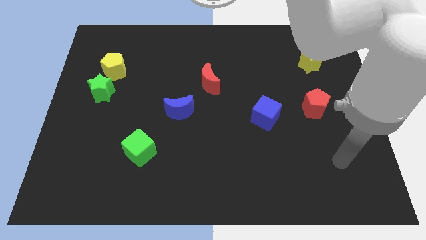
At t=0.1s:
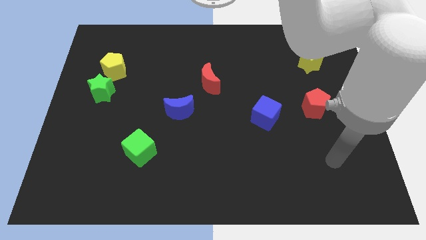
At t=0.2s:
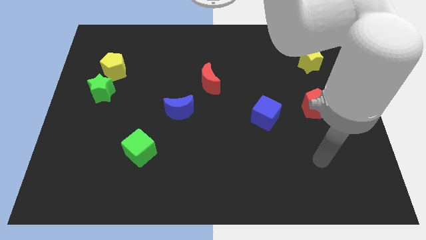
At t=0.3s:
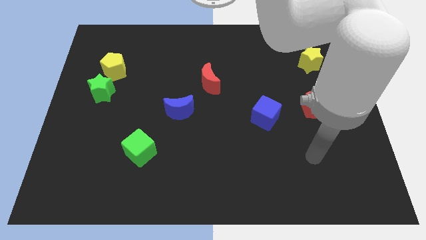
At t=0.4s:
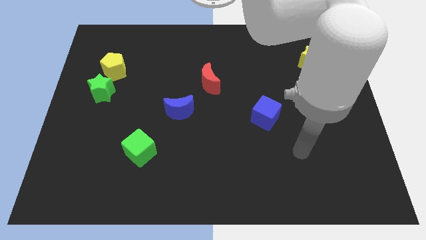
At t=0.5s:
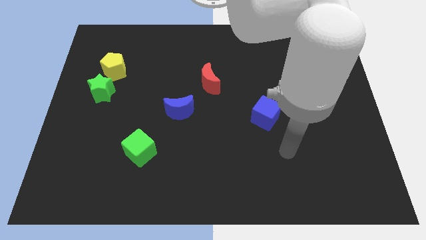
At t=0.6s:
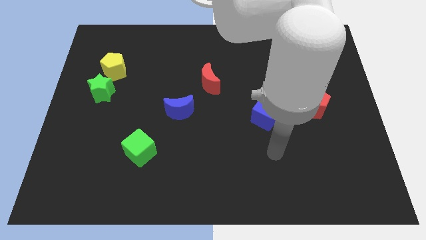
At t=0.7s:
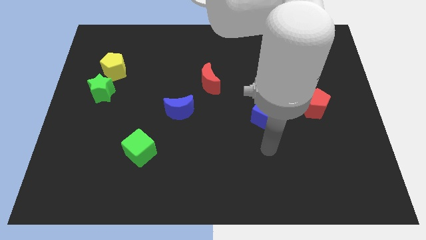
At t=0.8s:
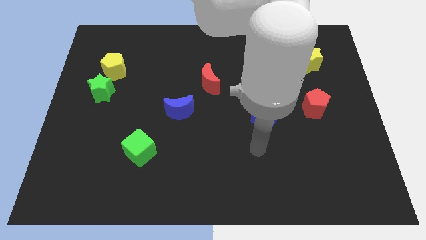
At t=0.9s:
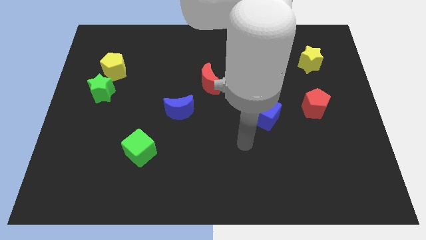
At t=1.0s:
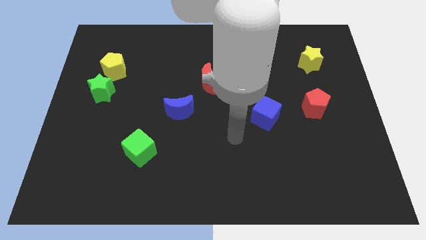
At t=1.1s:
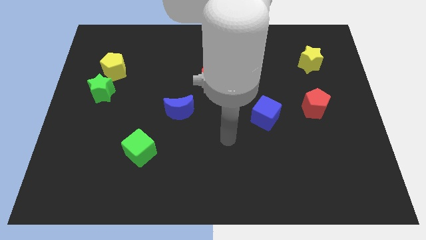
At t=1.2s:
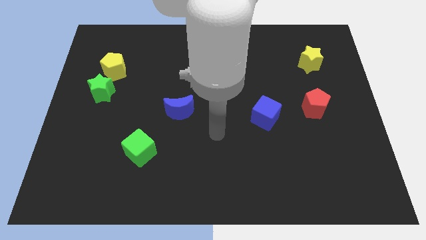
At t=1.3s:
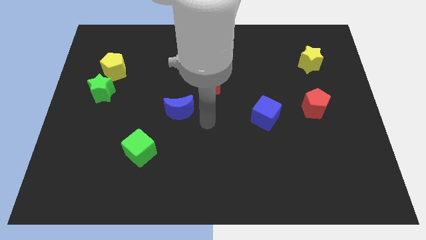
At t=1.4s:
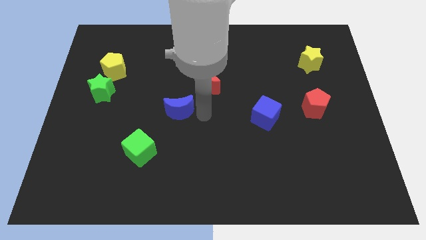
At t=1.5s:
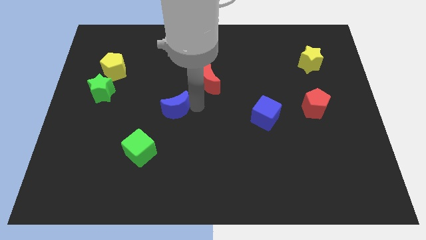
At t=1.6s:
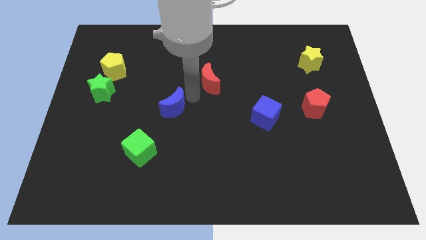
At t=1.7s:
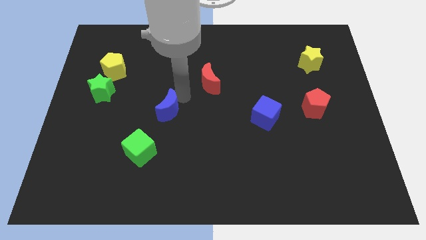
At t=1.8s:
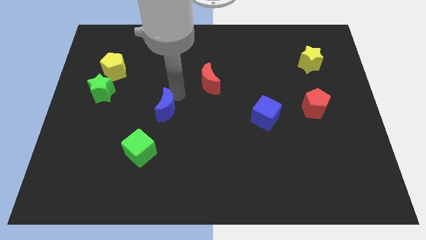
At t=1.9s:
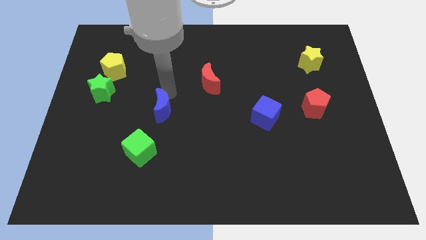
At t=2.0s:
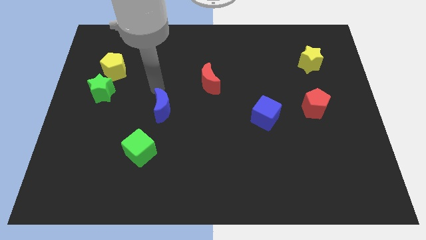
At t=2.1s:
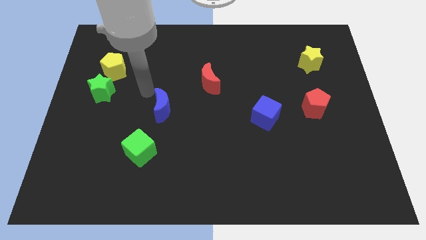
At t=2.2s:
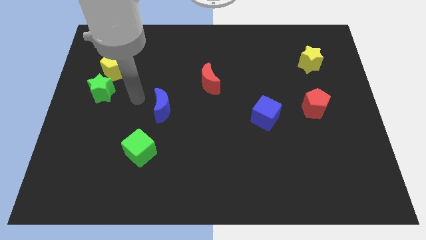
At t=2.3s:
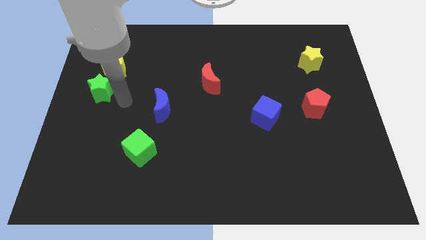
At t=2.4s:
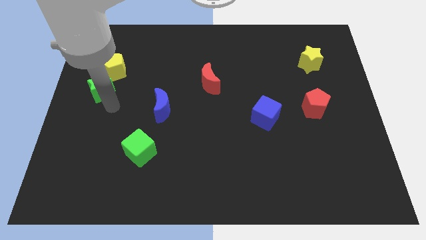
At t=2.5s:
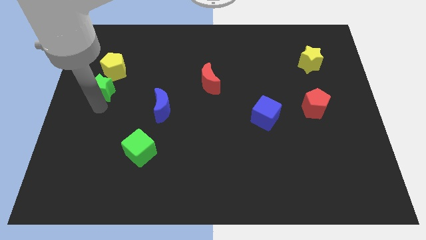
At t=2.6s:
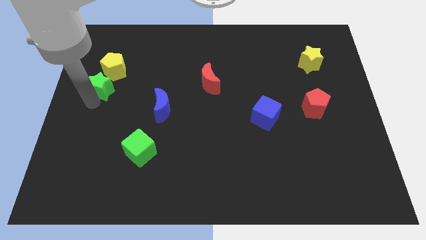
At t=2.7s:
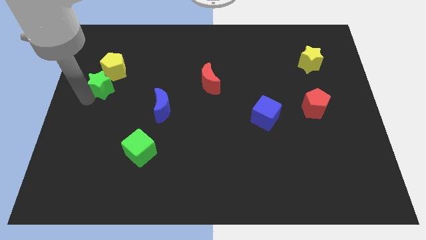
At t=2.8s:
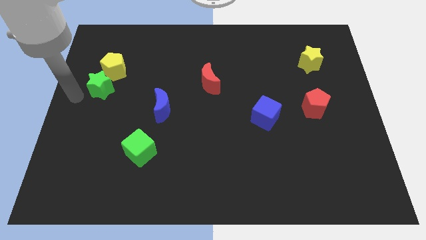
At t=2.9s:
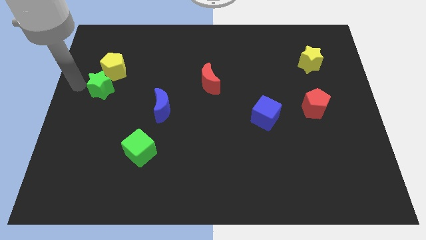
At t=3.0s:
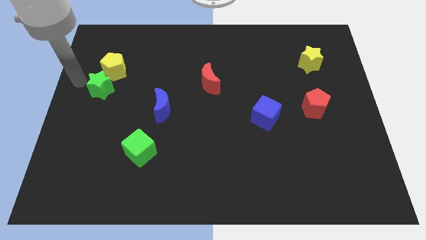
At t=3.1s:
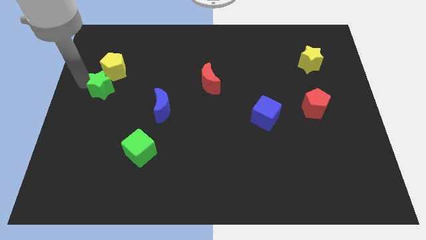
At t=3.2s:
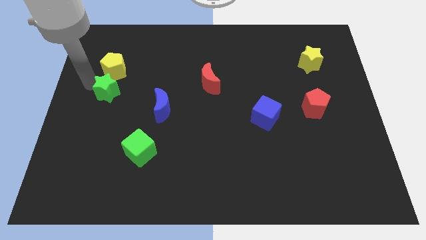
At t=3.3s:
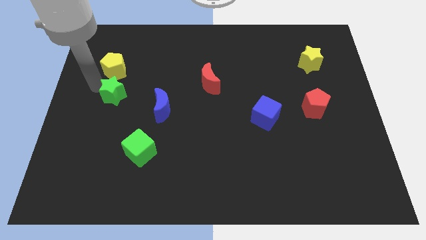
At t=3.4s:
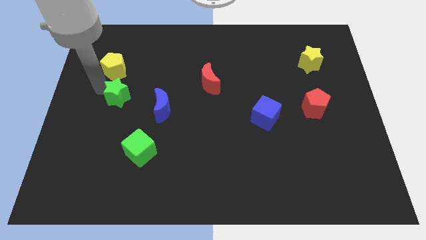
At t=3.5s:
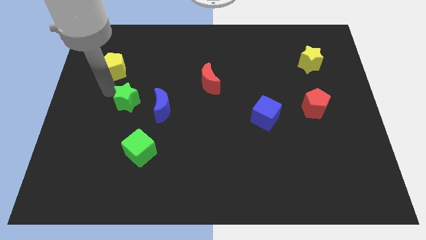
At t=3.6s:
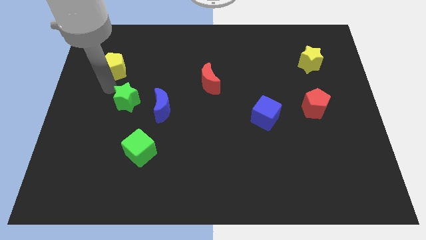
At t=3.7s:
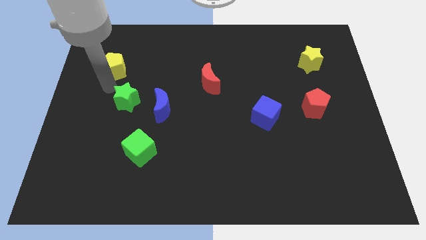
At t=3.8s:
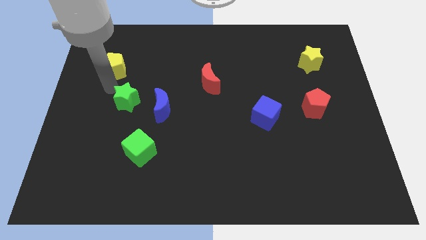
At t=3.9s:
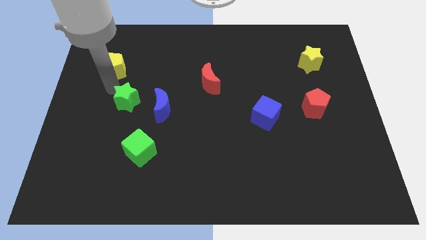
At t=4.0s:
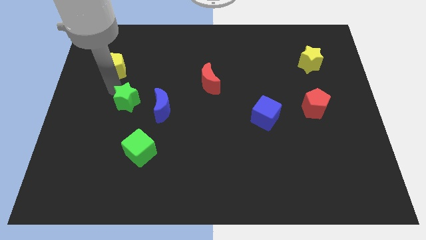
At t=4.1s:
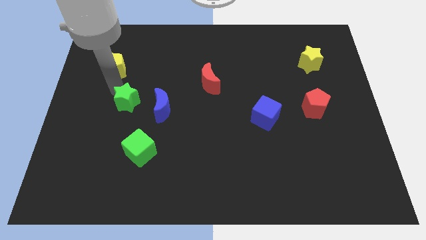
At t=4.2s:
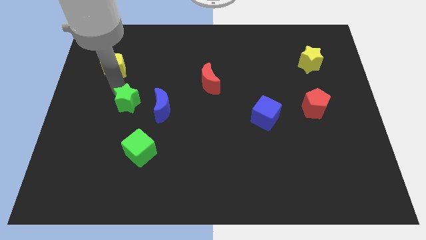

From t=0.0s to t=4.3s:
slightly push the green star down and then right

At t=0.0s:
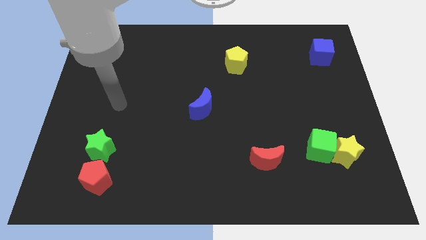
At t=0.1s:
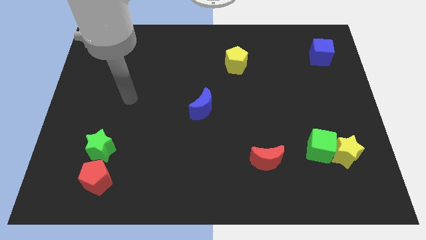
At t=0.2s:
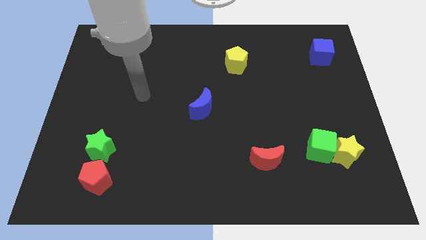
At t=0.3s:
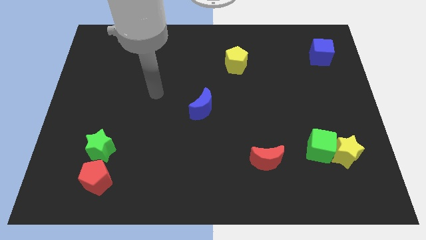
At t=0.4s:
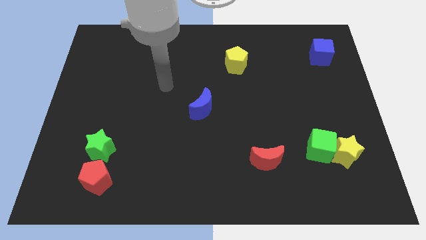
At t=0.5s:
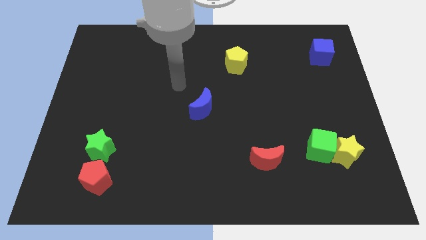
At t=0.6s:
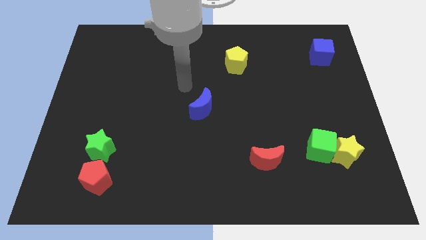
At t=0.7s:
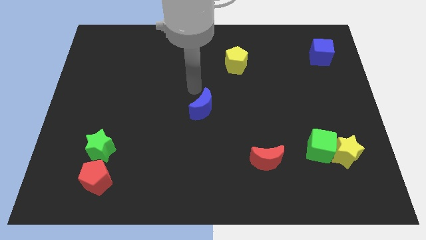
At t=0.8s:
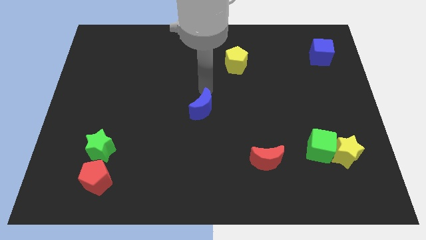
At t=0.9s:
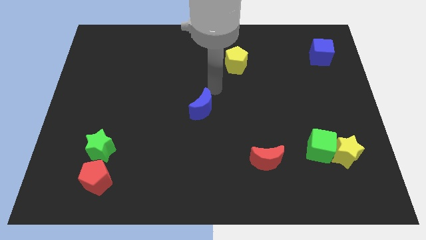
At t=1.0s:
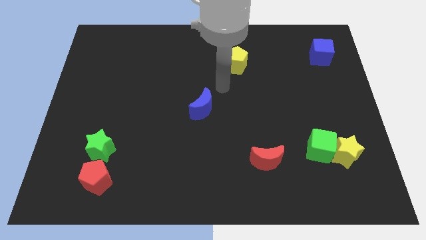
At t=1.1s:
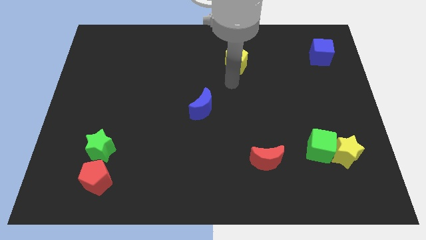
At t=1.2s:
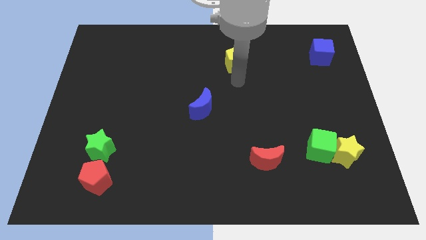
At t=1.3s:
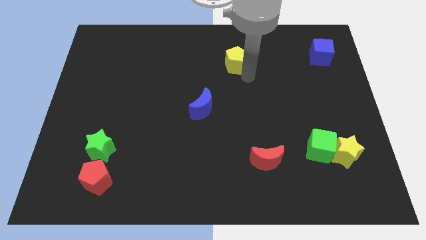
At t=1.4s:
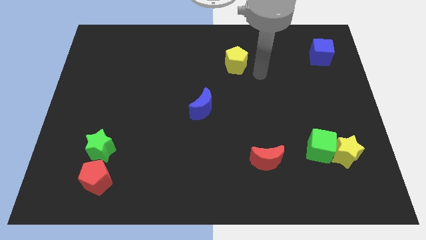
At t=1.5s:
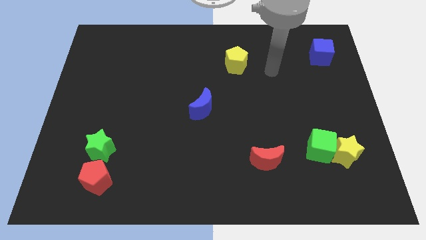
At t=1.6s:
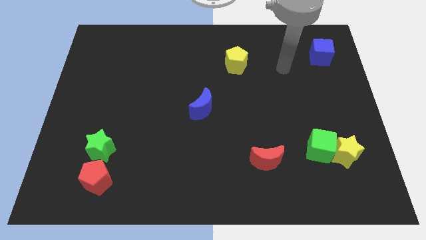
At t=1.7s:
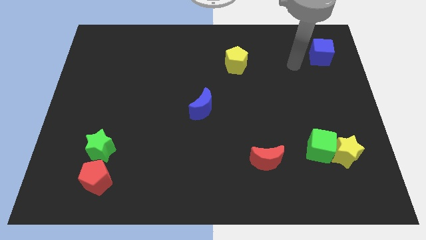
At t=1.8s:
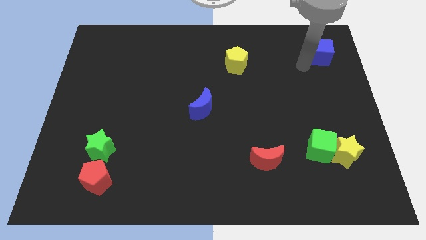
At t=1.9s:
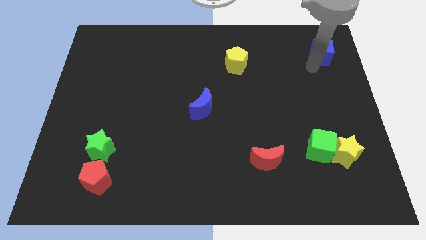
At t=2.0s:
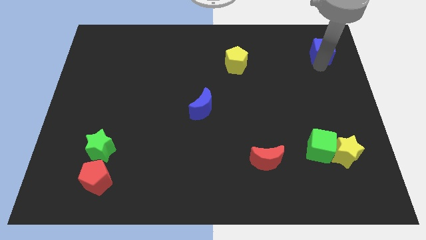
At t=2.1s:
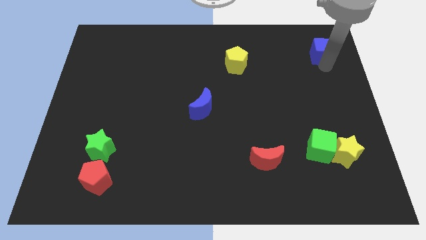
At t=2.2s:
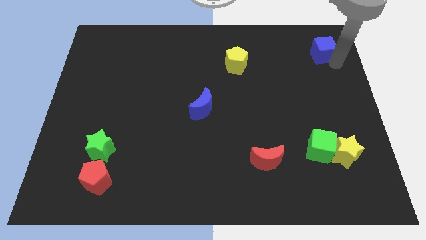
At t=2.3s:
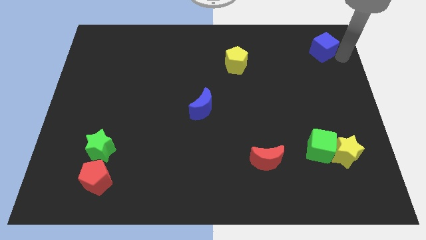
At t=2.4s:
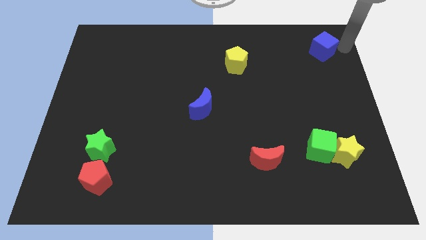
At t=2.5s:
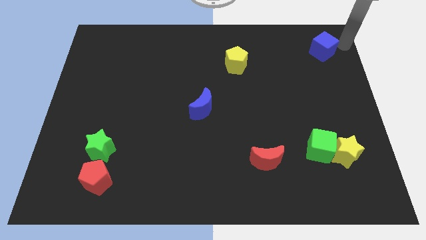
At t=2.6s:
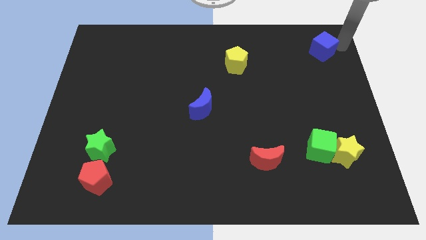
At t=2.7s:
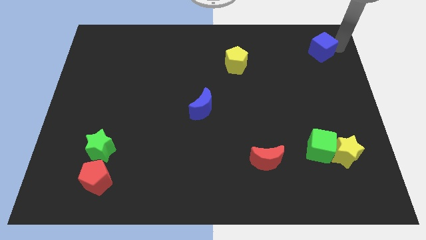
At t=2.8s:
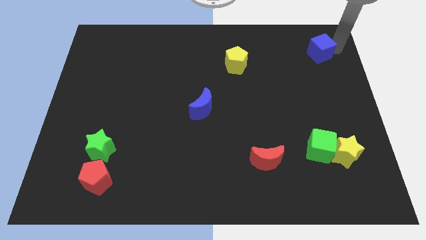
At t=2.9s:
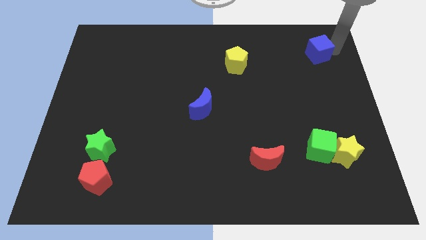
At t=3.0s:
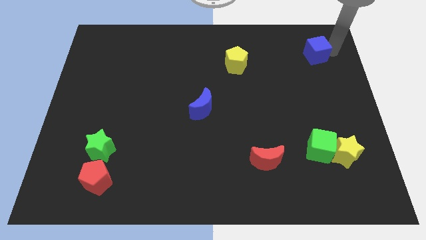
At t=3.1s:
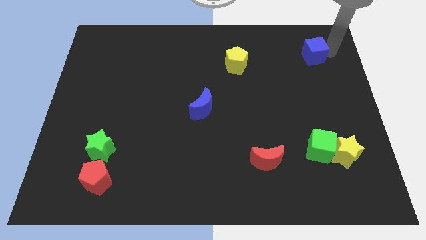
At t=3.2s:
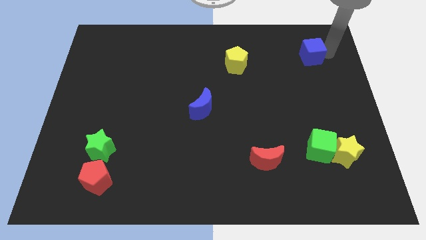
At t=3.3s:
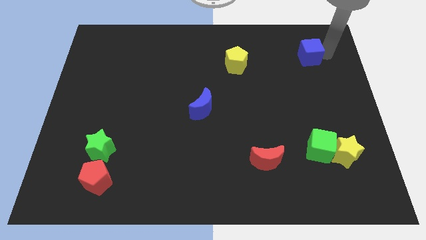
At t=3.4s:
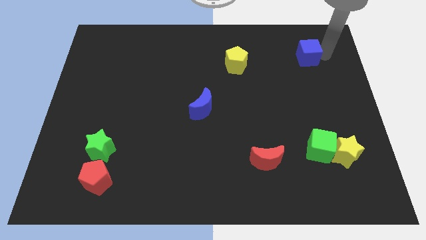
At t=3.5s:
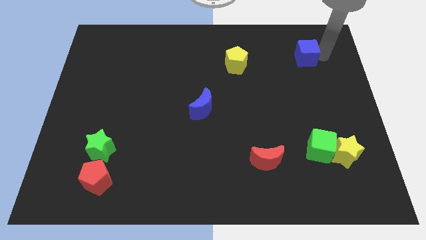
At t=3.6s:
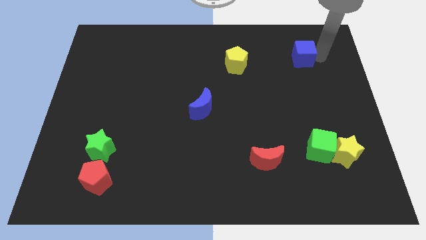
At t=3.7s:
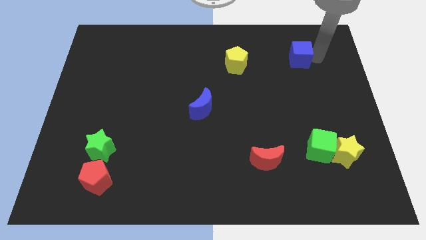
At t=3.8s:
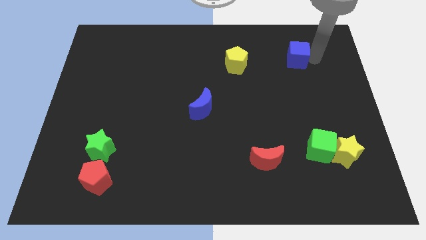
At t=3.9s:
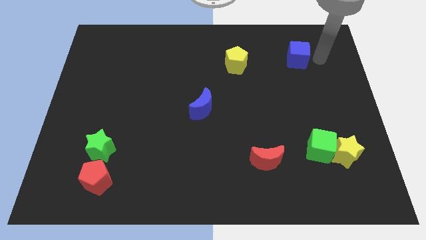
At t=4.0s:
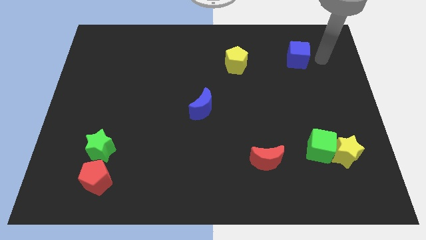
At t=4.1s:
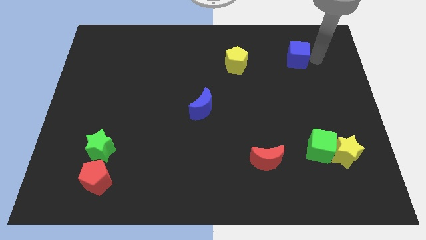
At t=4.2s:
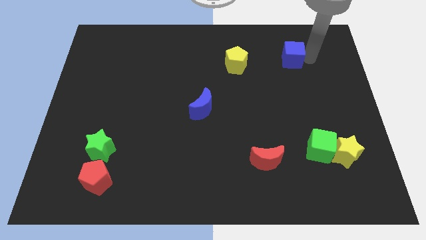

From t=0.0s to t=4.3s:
slightly move the blue cube to the left
